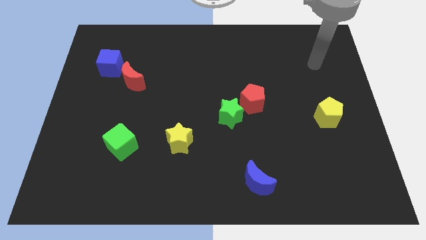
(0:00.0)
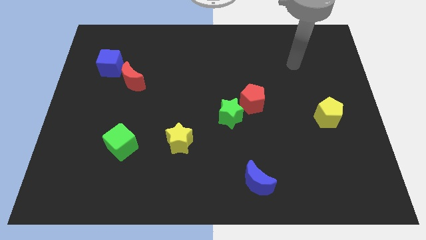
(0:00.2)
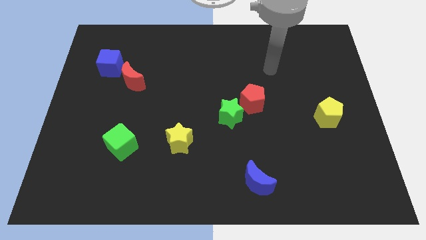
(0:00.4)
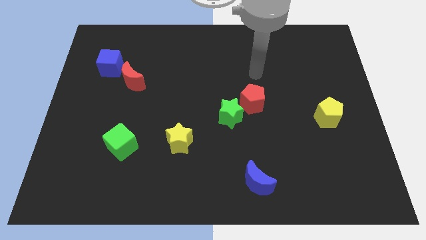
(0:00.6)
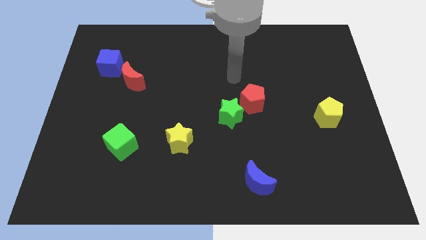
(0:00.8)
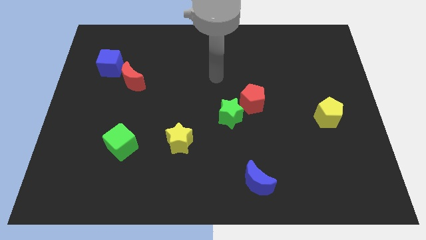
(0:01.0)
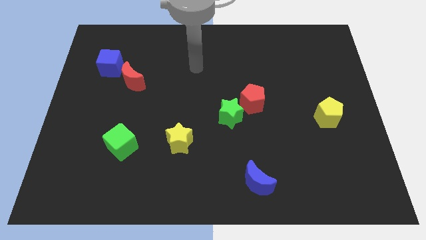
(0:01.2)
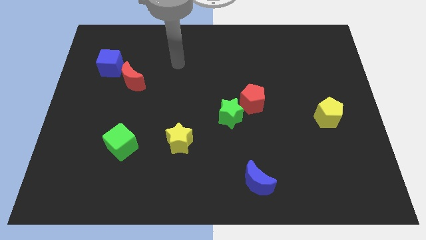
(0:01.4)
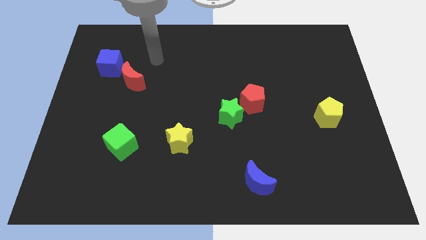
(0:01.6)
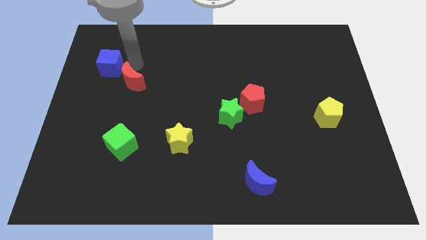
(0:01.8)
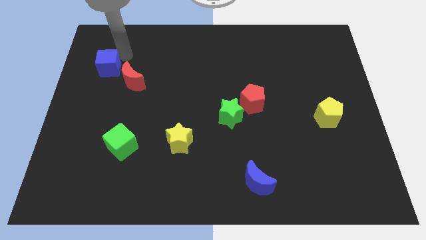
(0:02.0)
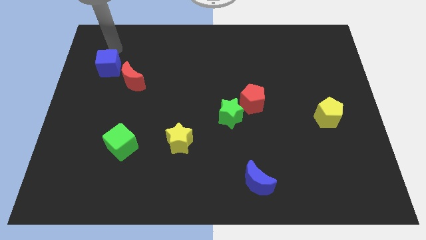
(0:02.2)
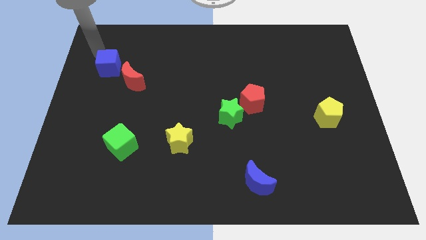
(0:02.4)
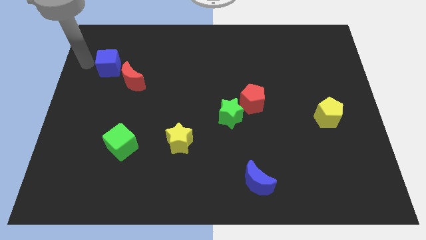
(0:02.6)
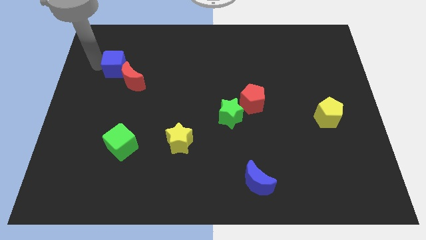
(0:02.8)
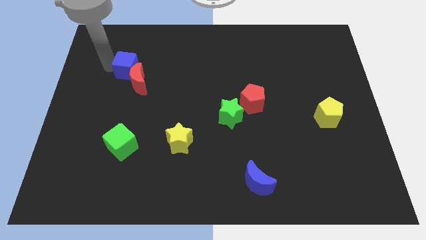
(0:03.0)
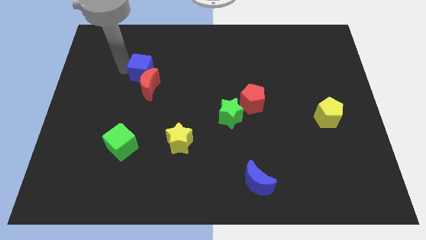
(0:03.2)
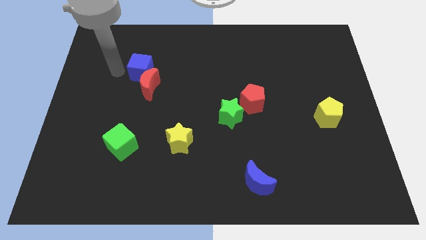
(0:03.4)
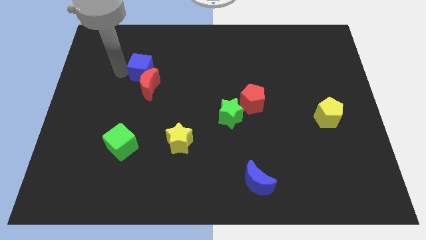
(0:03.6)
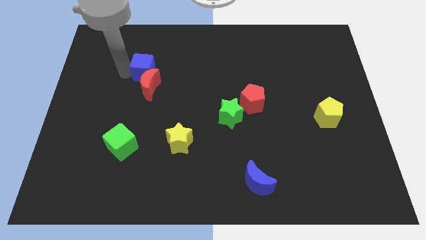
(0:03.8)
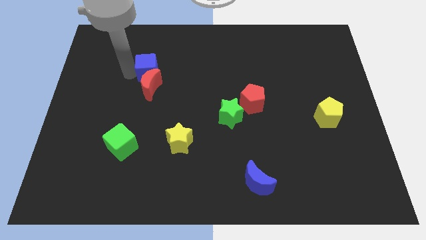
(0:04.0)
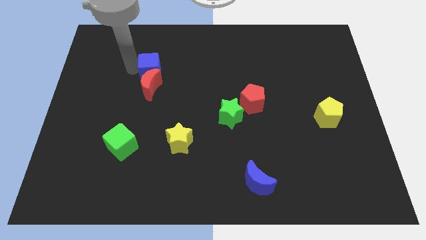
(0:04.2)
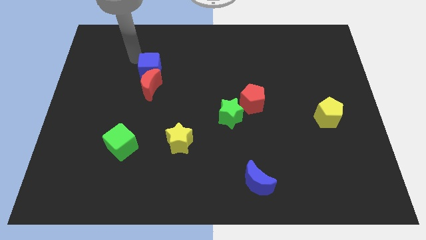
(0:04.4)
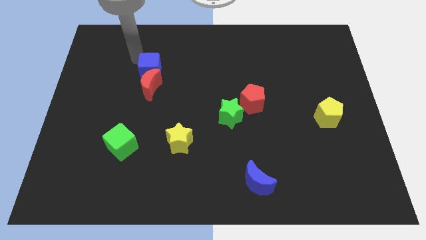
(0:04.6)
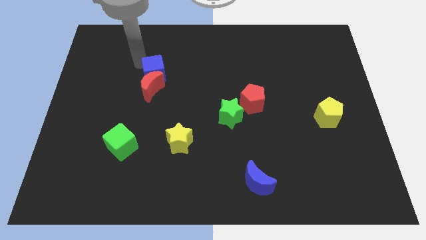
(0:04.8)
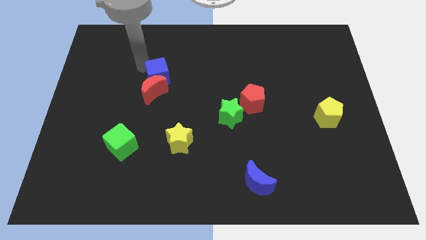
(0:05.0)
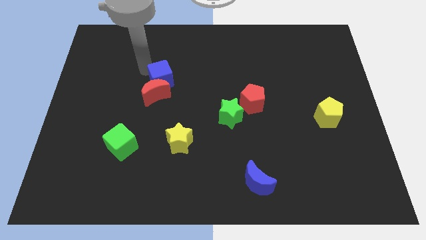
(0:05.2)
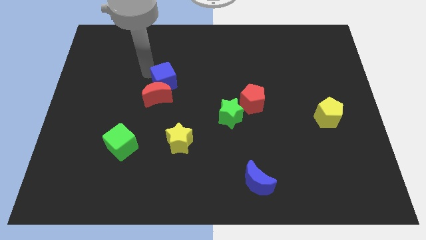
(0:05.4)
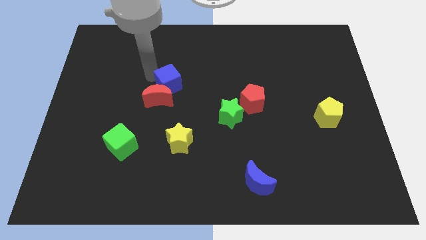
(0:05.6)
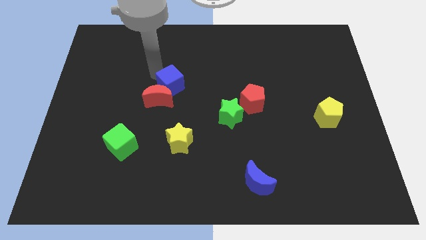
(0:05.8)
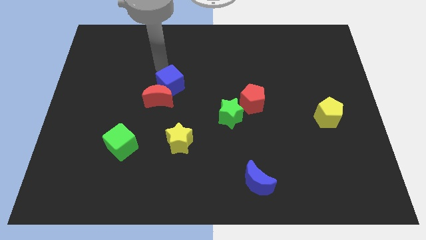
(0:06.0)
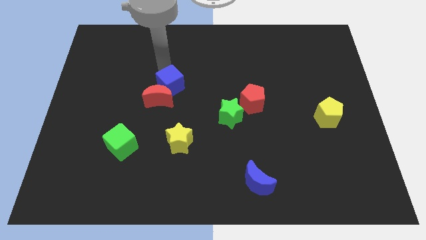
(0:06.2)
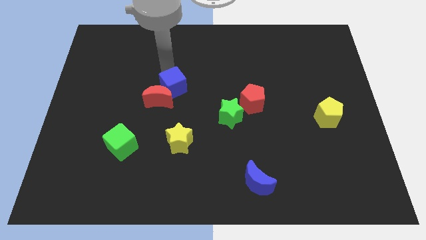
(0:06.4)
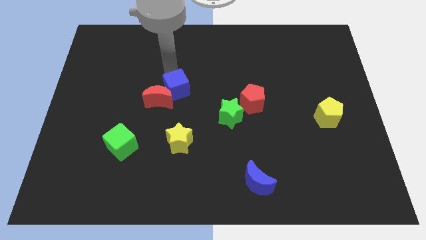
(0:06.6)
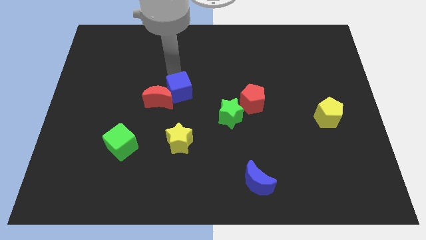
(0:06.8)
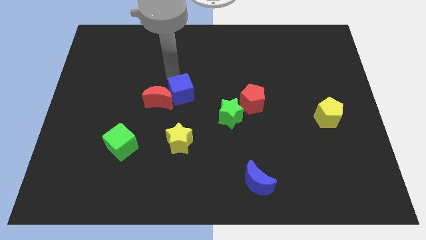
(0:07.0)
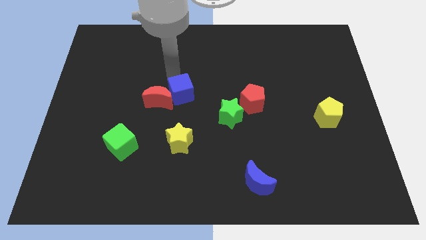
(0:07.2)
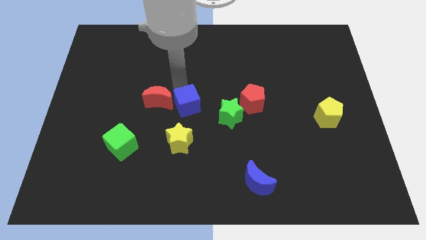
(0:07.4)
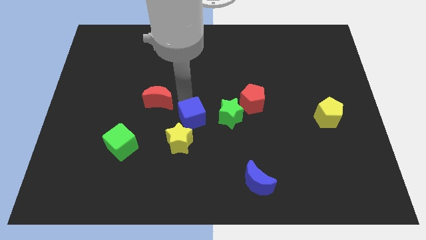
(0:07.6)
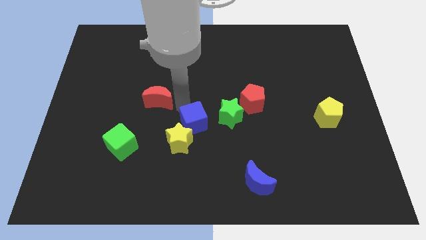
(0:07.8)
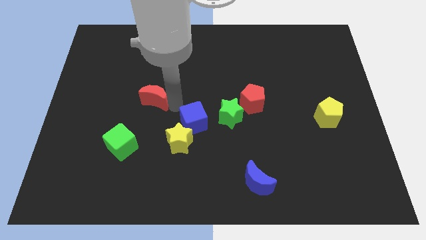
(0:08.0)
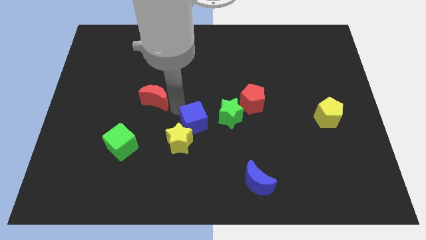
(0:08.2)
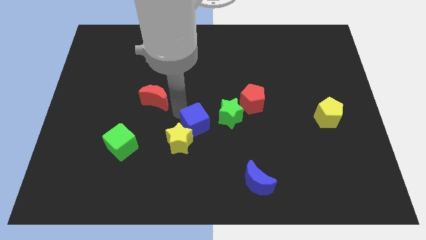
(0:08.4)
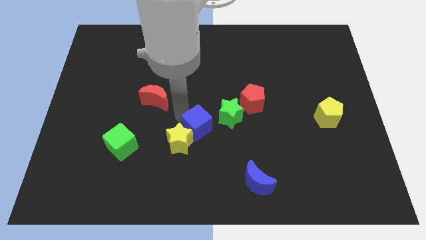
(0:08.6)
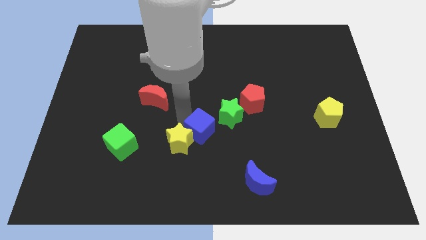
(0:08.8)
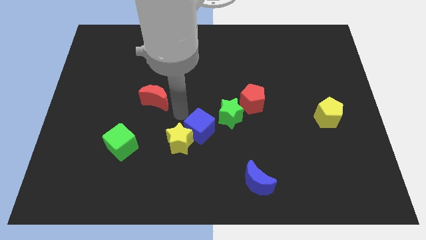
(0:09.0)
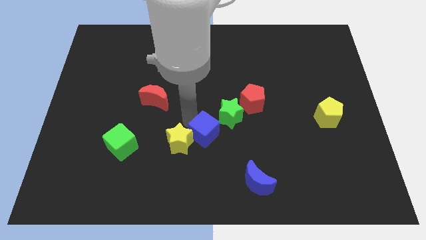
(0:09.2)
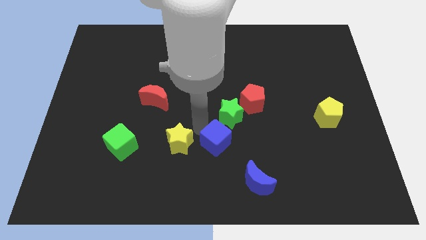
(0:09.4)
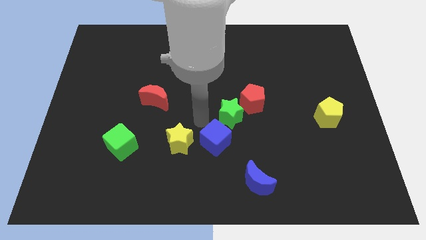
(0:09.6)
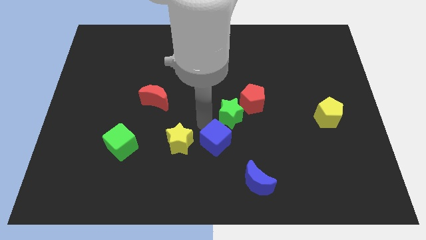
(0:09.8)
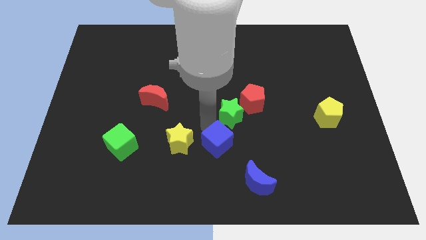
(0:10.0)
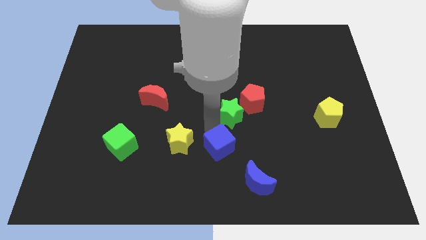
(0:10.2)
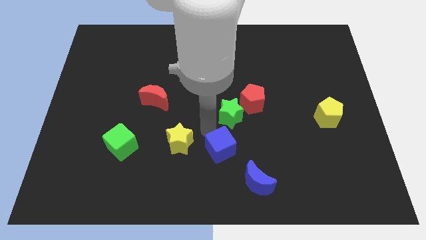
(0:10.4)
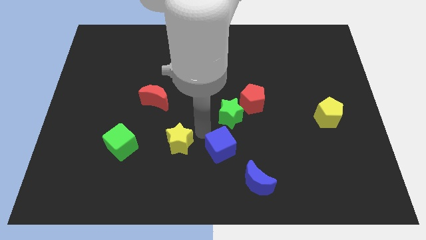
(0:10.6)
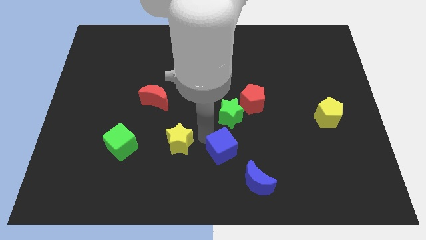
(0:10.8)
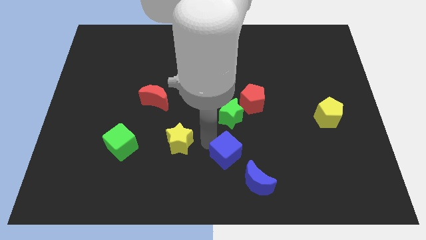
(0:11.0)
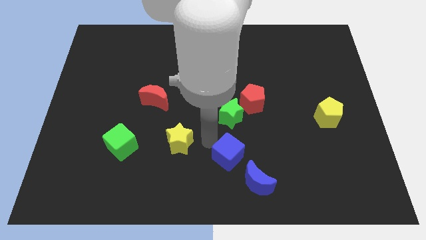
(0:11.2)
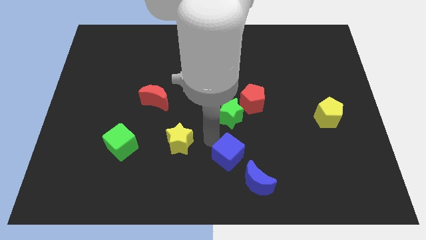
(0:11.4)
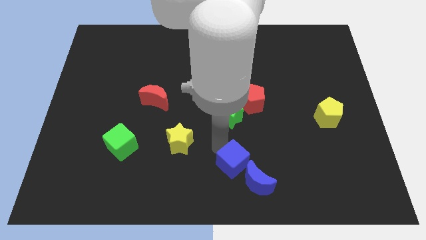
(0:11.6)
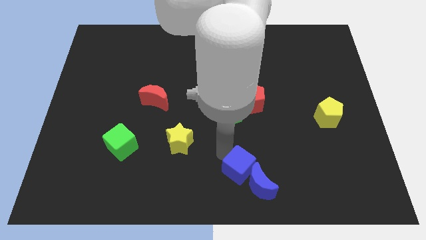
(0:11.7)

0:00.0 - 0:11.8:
put the blue cube to the blue moon

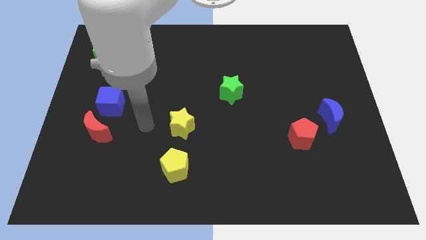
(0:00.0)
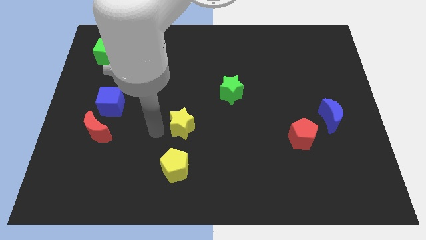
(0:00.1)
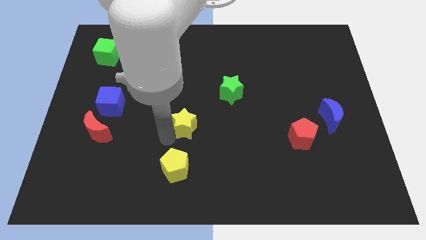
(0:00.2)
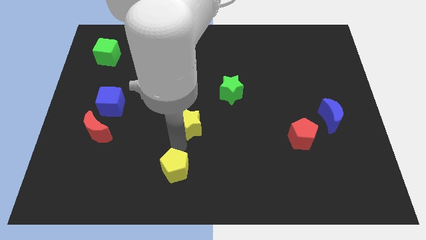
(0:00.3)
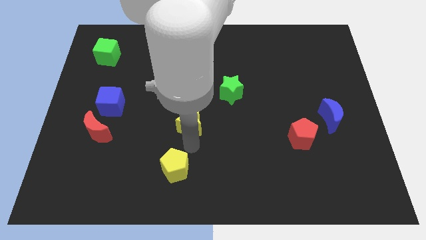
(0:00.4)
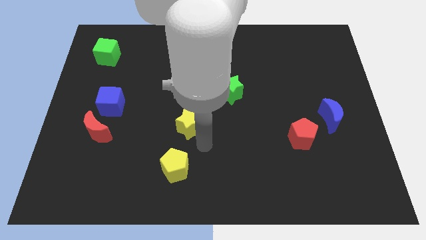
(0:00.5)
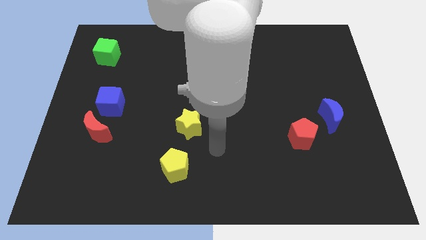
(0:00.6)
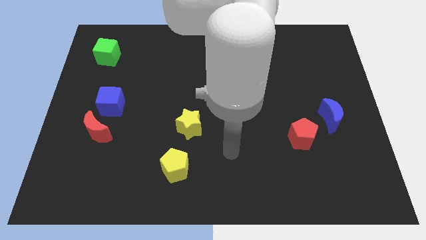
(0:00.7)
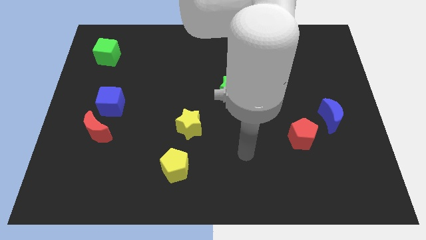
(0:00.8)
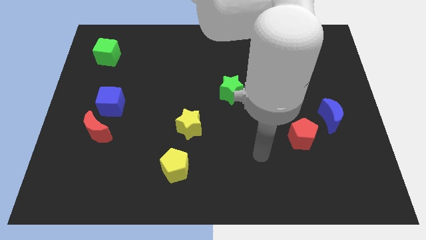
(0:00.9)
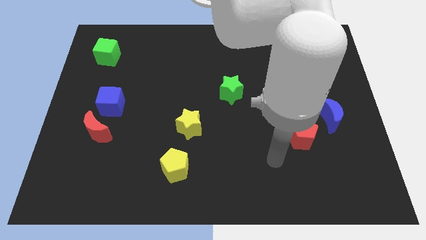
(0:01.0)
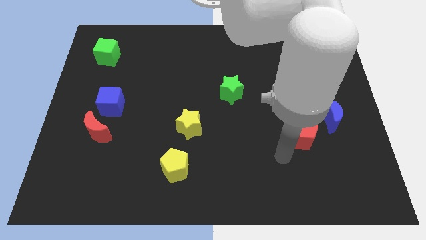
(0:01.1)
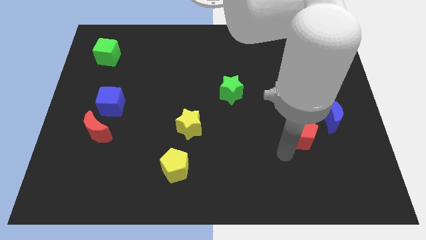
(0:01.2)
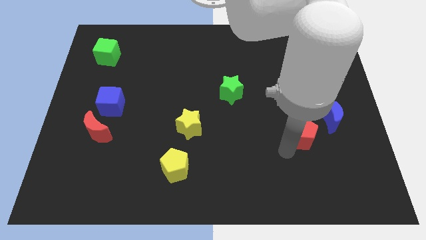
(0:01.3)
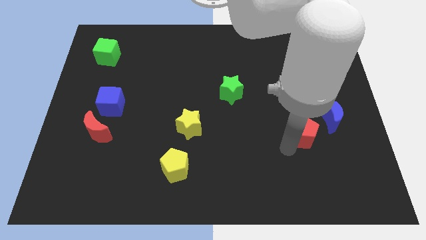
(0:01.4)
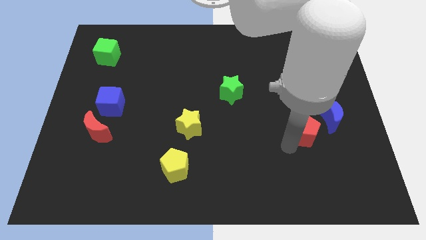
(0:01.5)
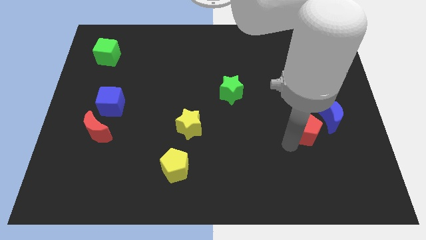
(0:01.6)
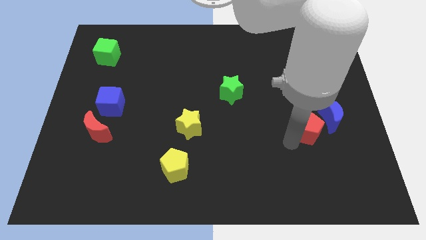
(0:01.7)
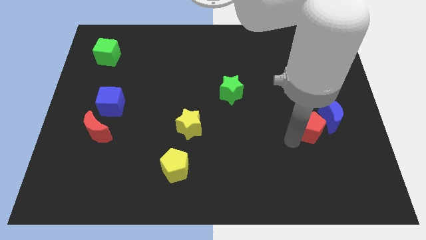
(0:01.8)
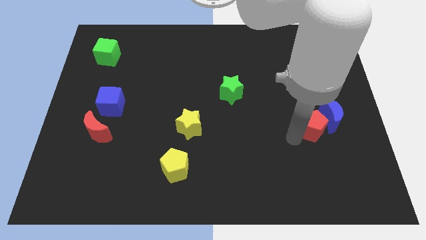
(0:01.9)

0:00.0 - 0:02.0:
move the red pentagon next to the blue moon
